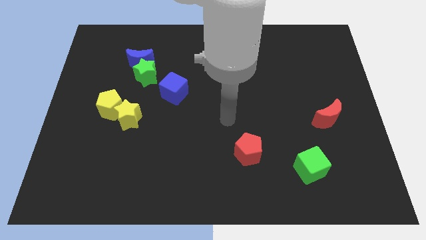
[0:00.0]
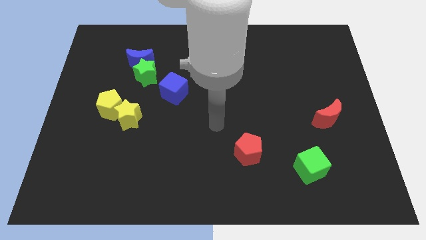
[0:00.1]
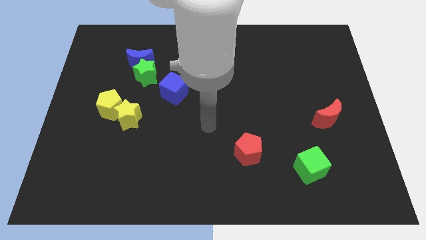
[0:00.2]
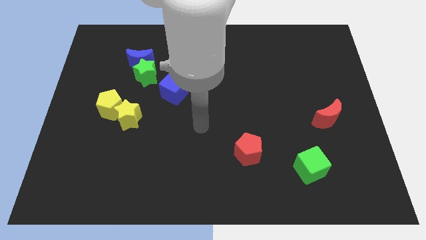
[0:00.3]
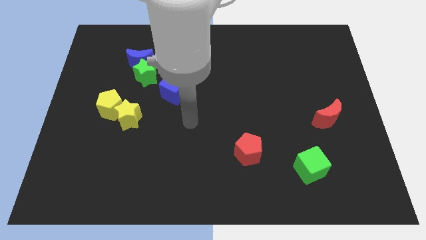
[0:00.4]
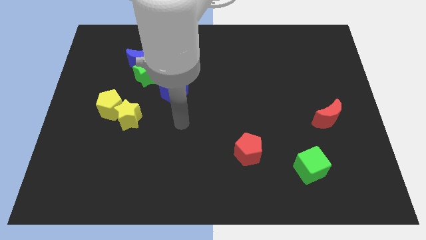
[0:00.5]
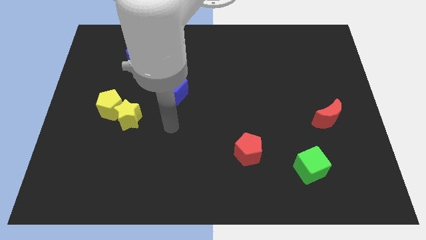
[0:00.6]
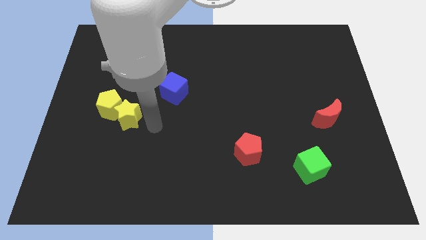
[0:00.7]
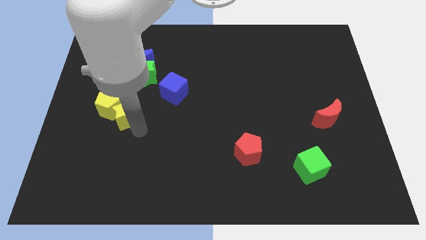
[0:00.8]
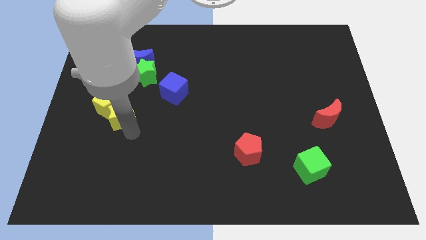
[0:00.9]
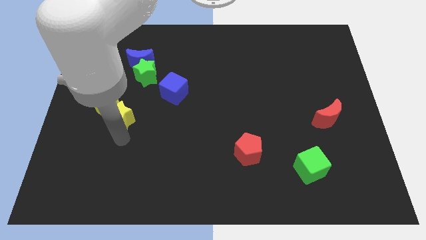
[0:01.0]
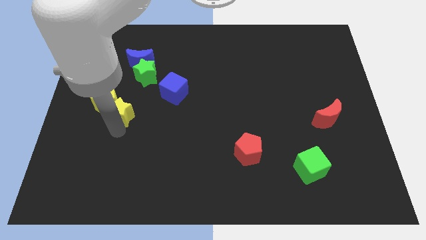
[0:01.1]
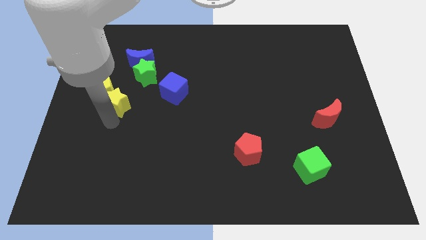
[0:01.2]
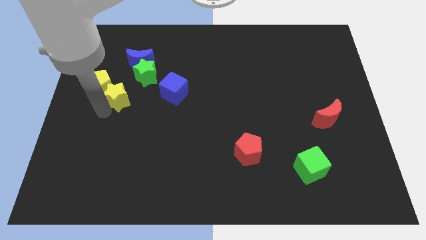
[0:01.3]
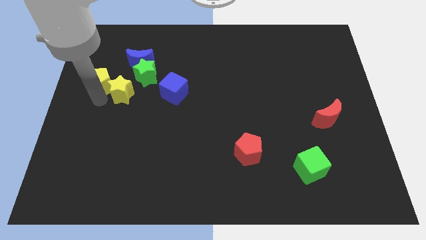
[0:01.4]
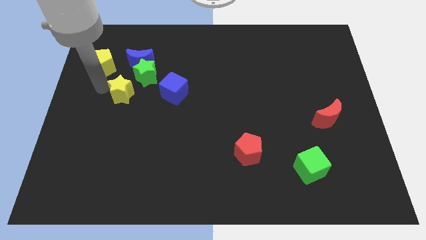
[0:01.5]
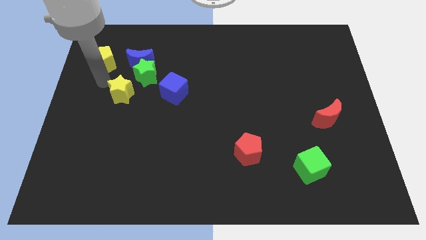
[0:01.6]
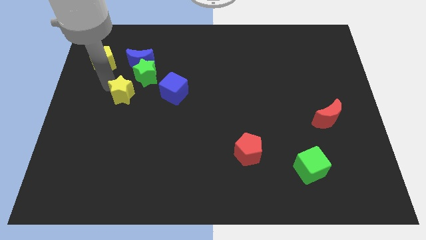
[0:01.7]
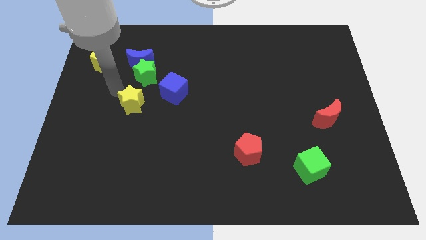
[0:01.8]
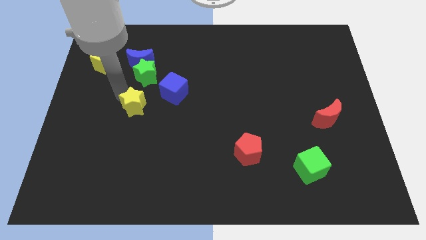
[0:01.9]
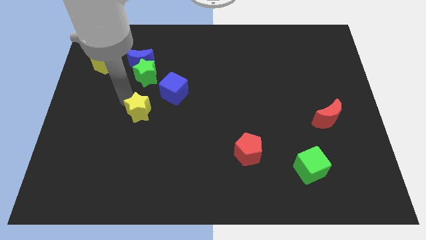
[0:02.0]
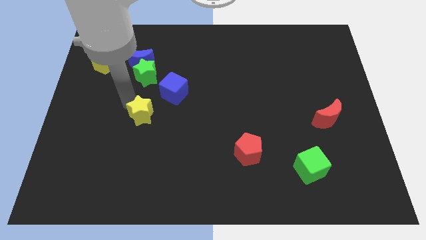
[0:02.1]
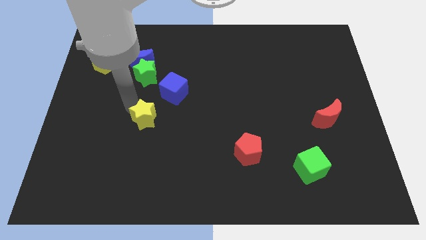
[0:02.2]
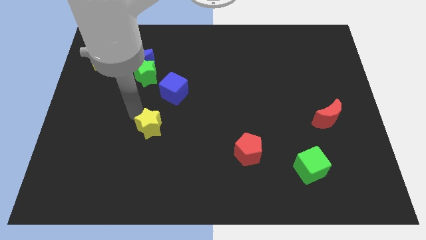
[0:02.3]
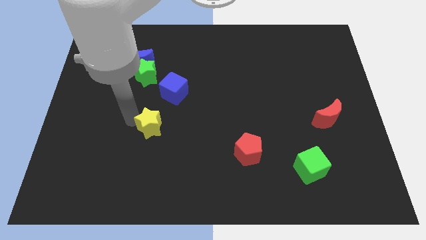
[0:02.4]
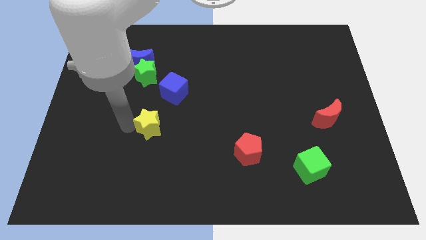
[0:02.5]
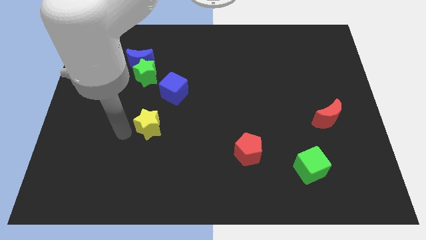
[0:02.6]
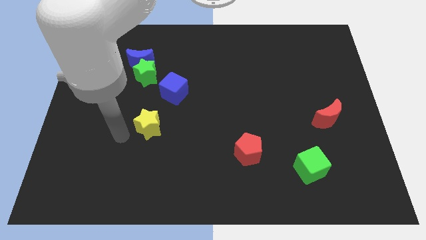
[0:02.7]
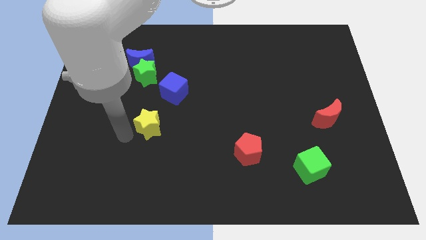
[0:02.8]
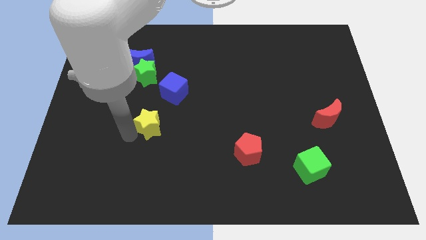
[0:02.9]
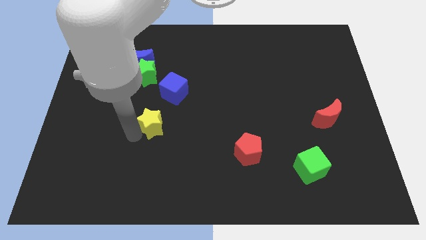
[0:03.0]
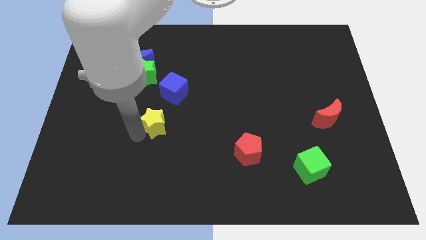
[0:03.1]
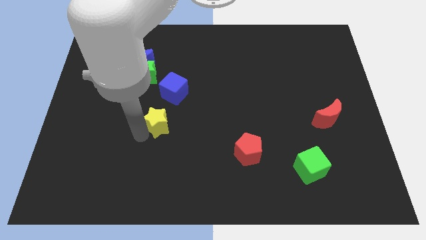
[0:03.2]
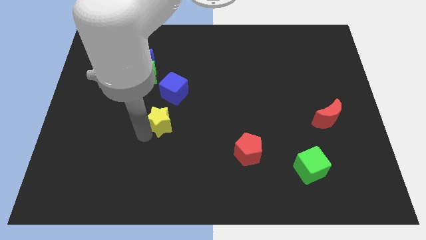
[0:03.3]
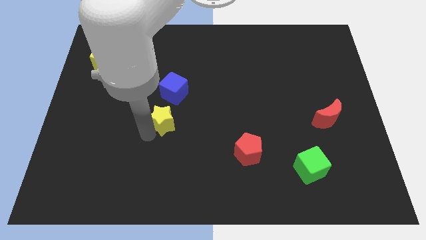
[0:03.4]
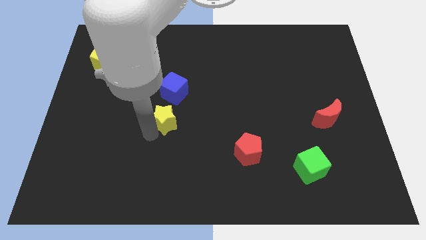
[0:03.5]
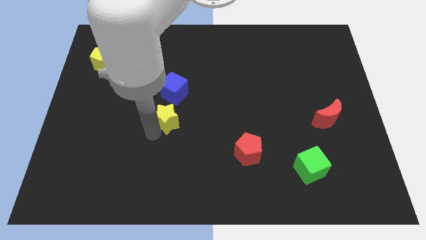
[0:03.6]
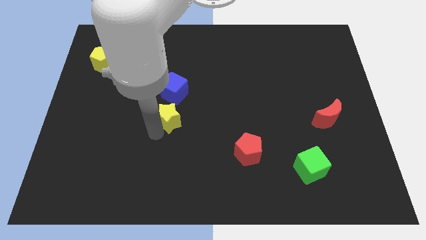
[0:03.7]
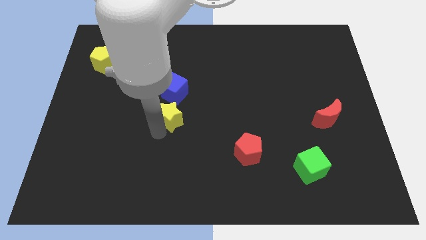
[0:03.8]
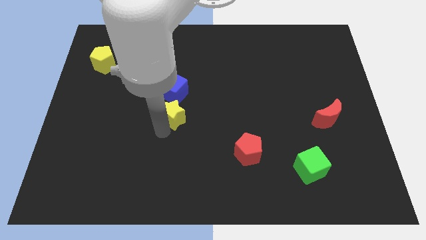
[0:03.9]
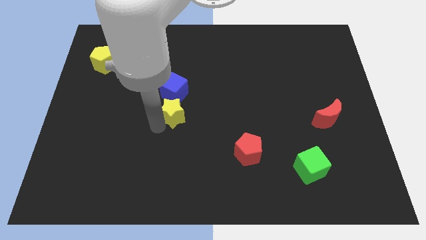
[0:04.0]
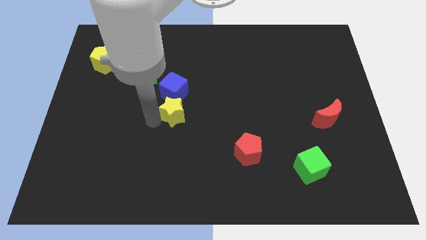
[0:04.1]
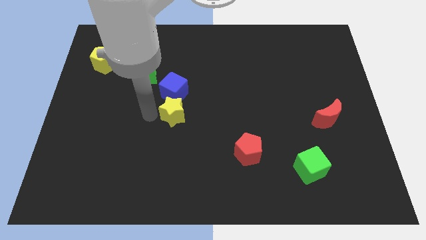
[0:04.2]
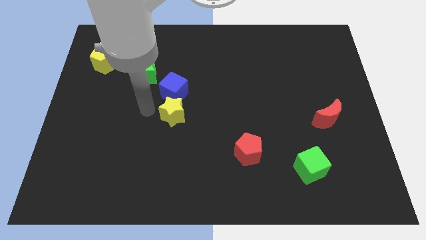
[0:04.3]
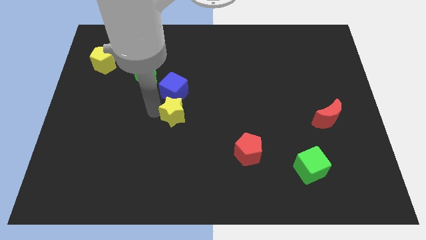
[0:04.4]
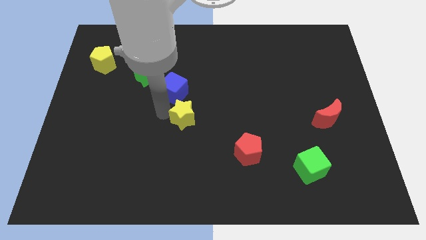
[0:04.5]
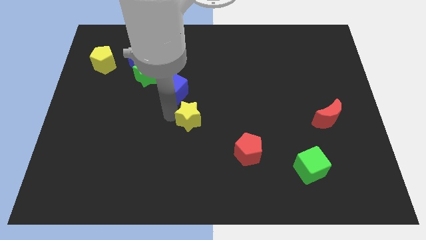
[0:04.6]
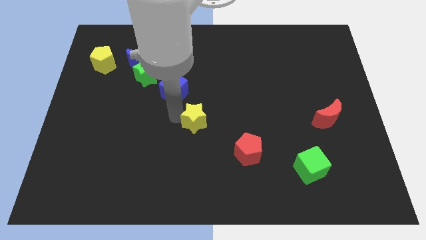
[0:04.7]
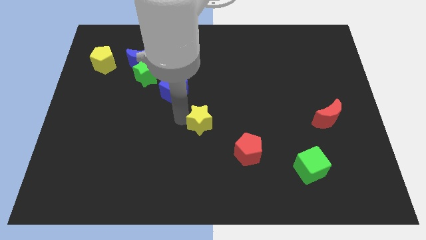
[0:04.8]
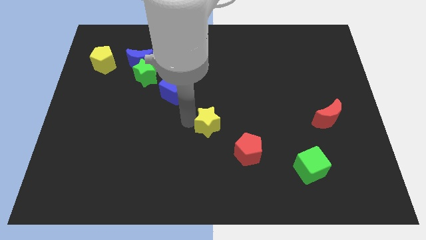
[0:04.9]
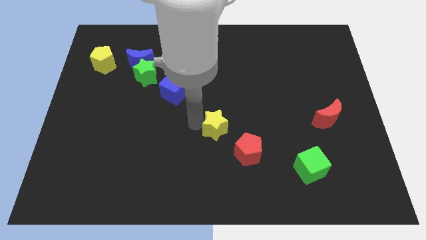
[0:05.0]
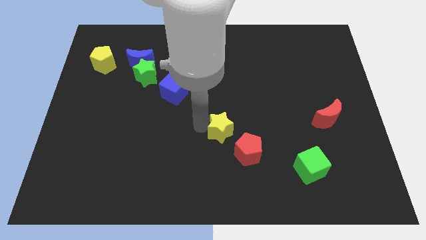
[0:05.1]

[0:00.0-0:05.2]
push the yellow star to the right

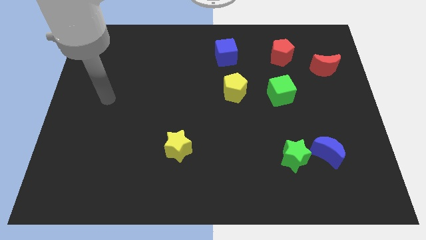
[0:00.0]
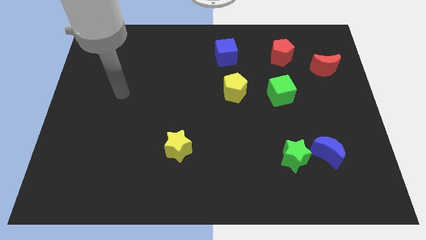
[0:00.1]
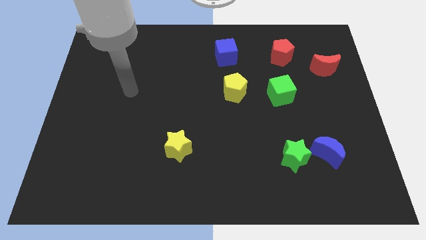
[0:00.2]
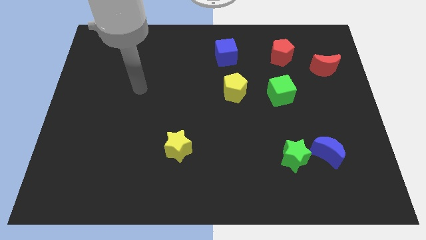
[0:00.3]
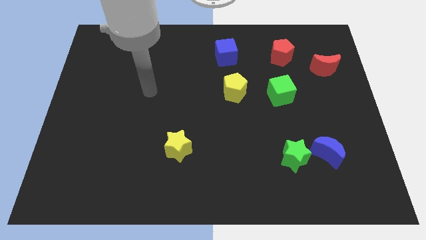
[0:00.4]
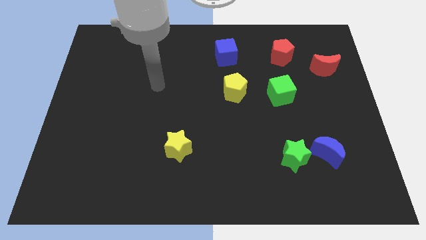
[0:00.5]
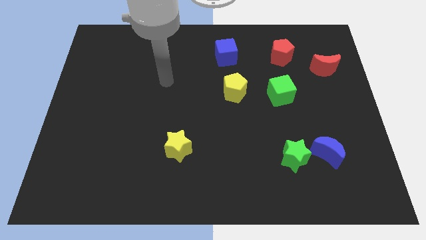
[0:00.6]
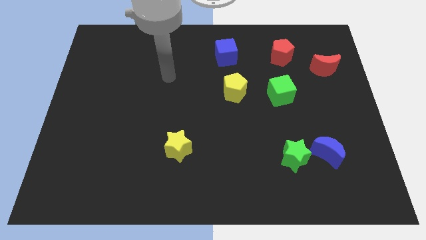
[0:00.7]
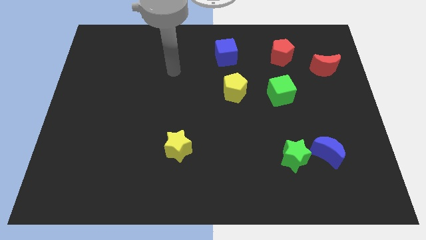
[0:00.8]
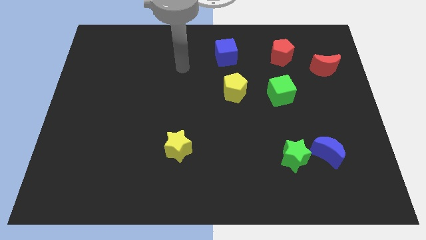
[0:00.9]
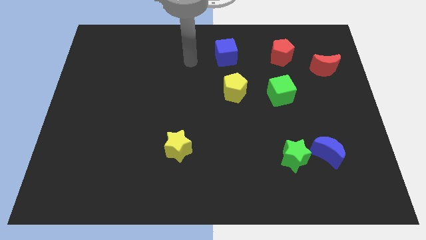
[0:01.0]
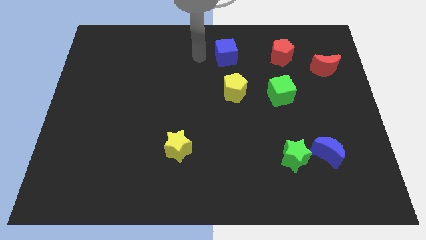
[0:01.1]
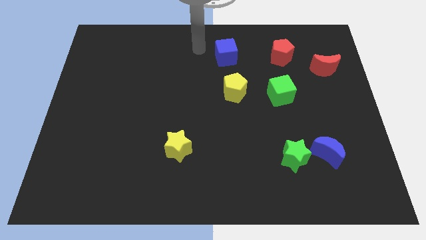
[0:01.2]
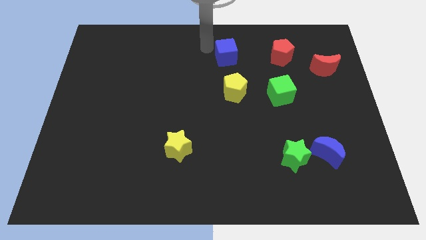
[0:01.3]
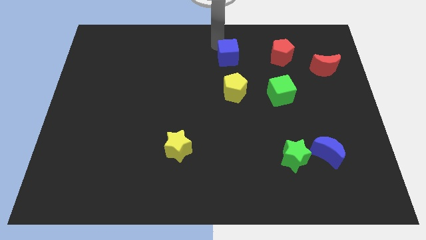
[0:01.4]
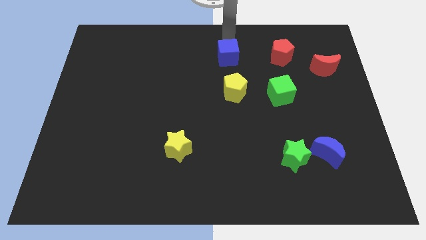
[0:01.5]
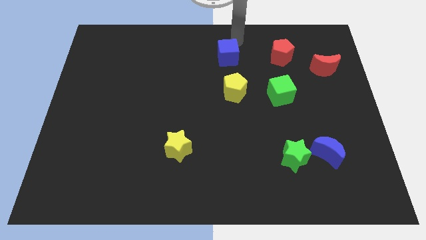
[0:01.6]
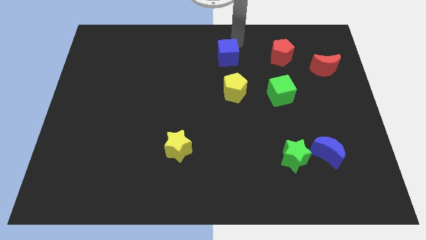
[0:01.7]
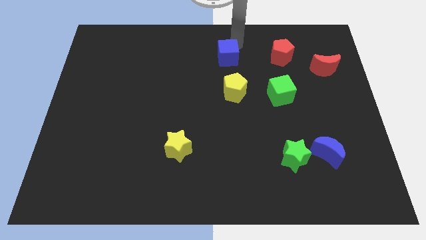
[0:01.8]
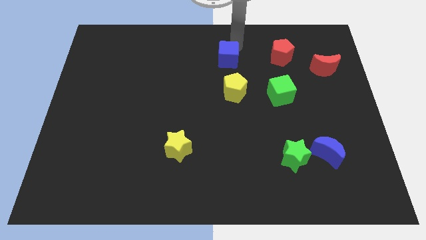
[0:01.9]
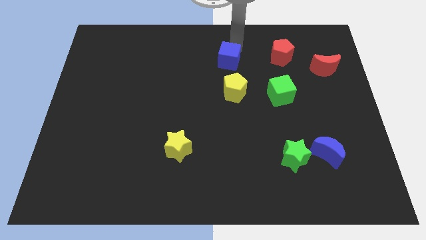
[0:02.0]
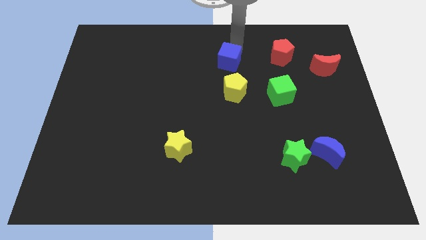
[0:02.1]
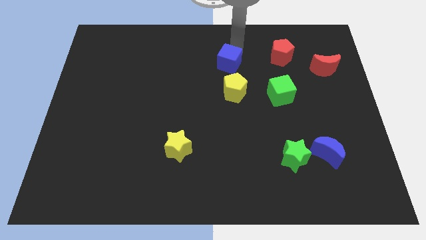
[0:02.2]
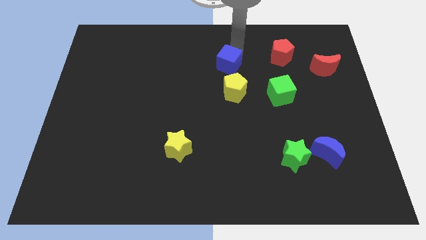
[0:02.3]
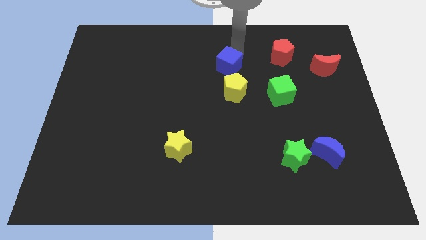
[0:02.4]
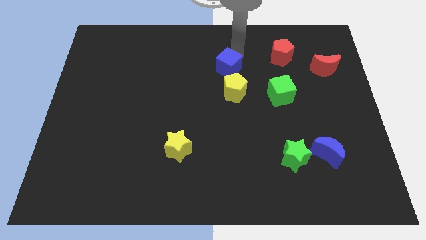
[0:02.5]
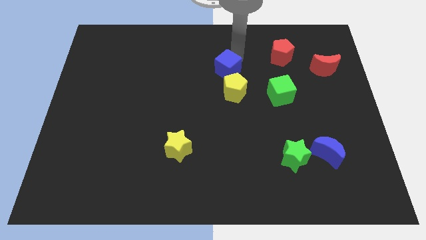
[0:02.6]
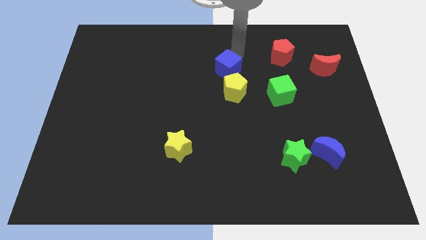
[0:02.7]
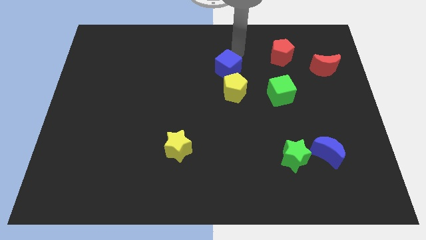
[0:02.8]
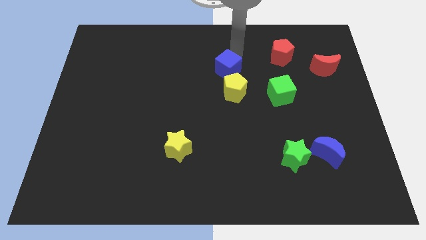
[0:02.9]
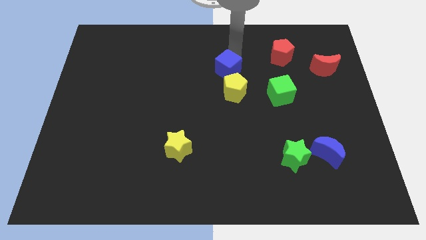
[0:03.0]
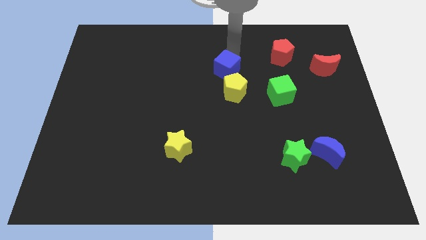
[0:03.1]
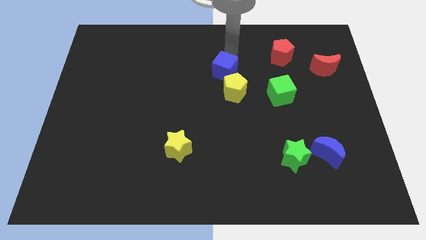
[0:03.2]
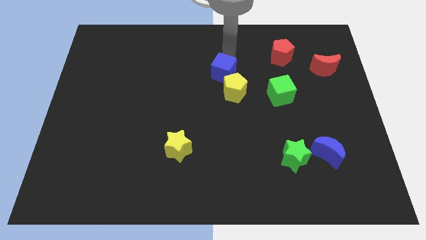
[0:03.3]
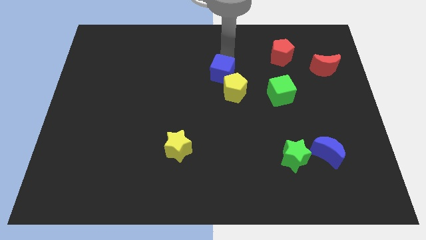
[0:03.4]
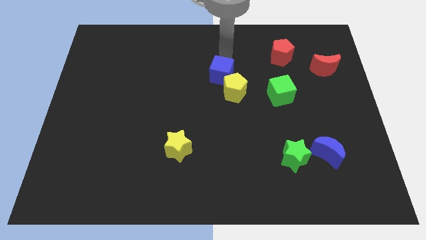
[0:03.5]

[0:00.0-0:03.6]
slightly push the blue cube downwards
